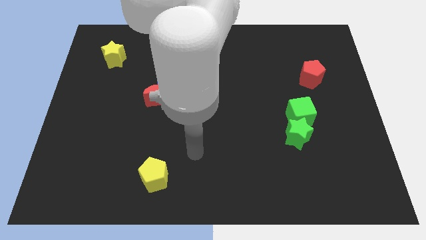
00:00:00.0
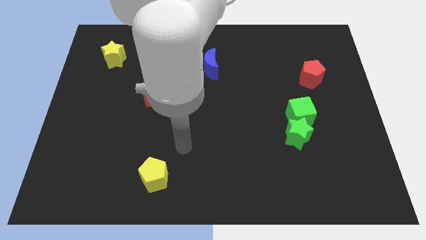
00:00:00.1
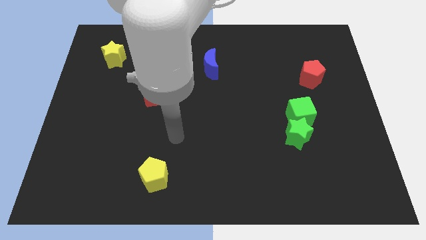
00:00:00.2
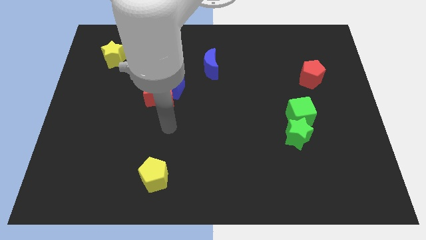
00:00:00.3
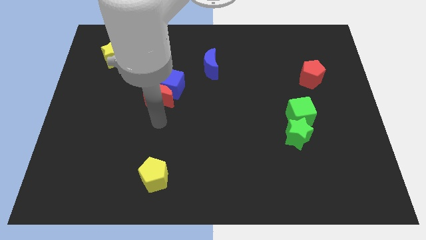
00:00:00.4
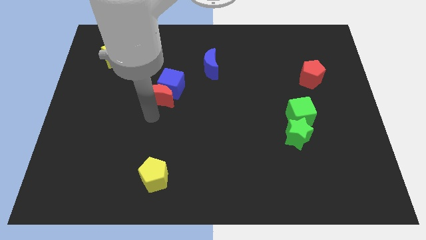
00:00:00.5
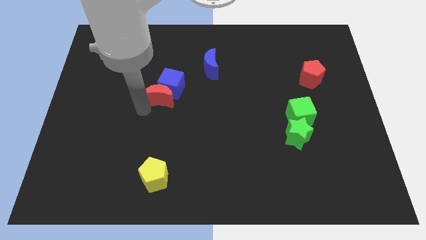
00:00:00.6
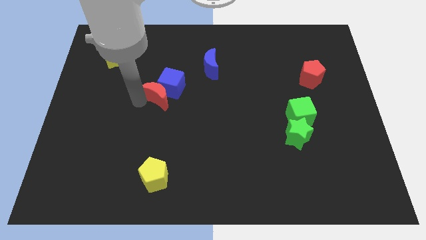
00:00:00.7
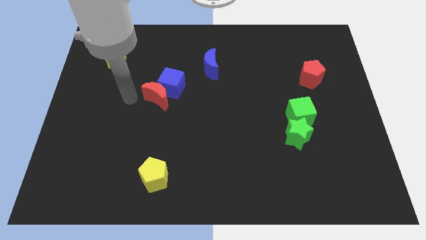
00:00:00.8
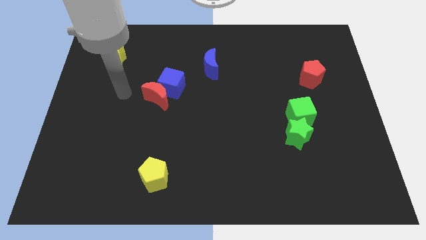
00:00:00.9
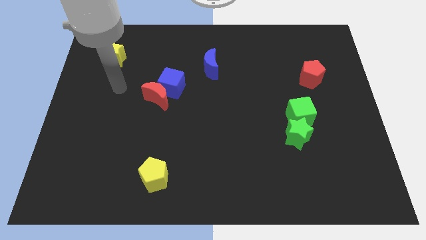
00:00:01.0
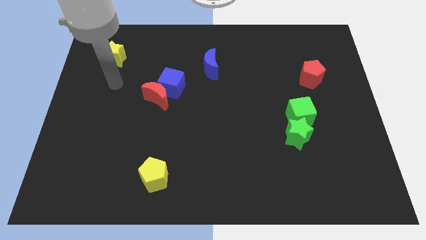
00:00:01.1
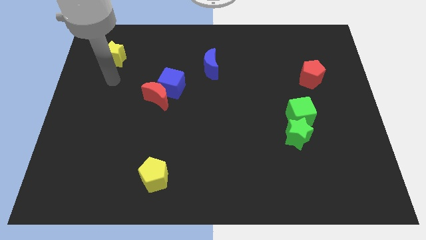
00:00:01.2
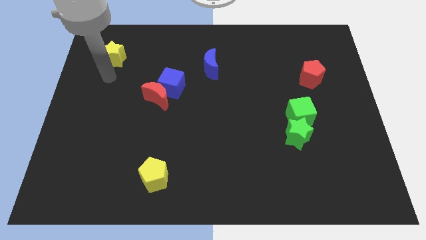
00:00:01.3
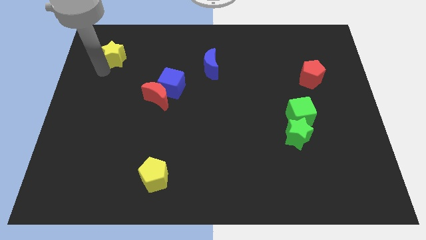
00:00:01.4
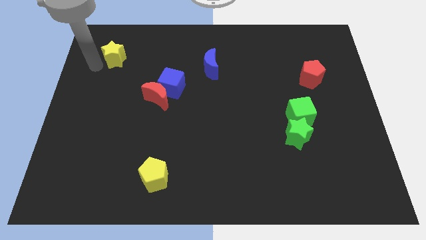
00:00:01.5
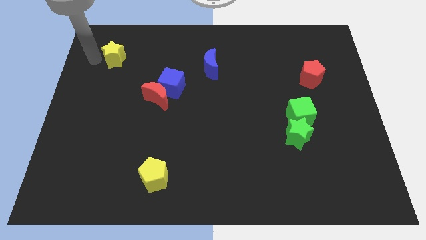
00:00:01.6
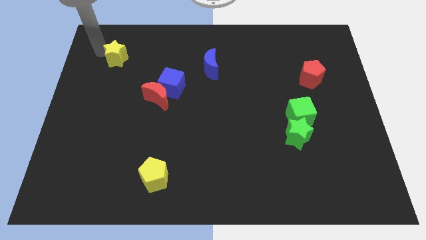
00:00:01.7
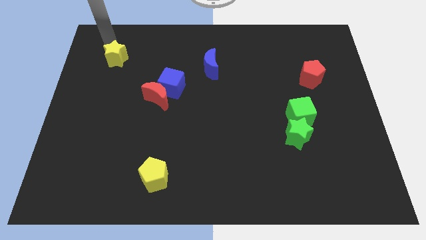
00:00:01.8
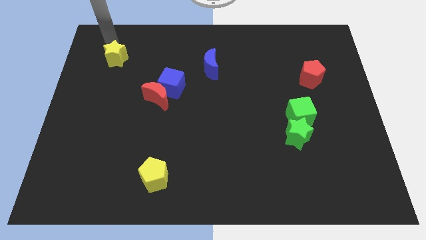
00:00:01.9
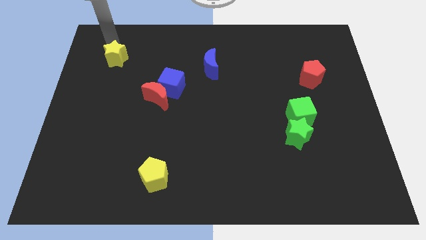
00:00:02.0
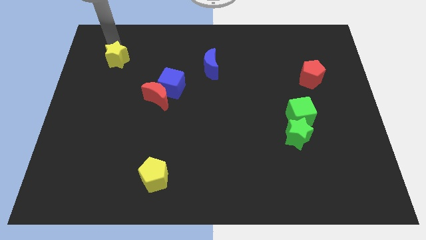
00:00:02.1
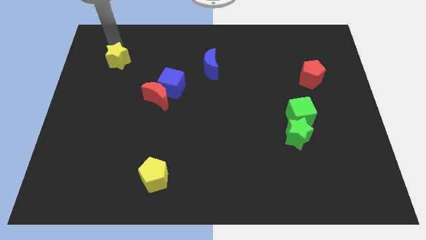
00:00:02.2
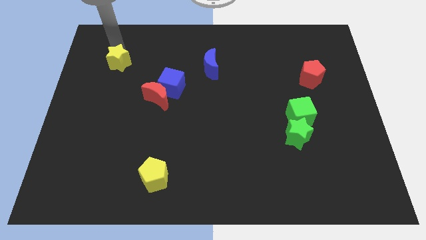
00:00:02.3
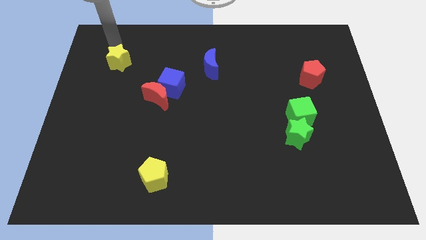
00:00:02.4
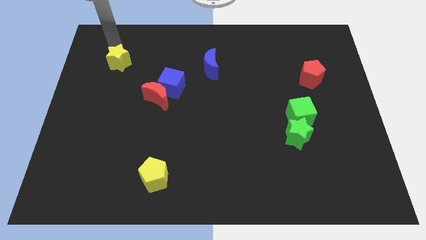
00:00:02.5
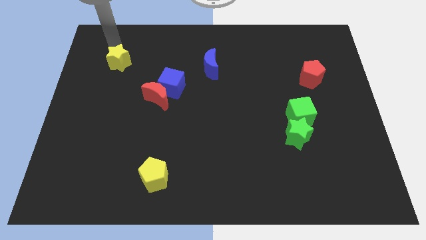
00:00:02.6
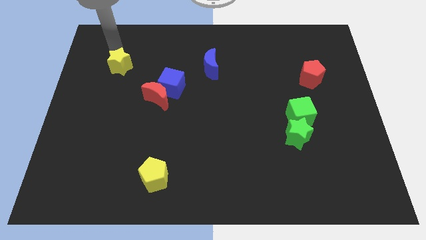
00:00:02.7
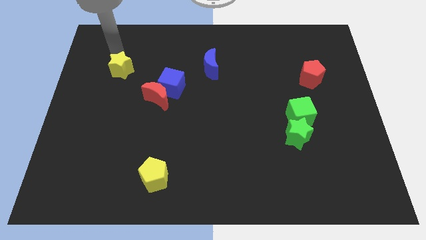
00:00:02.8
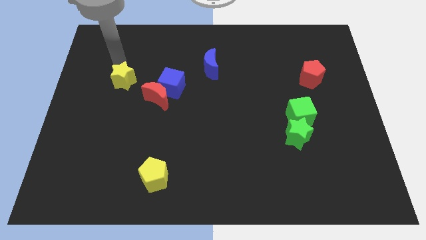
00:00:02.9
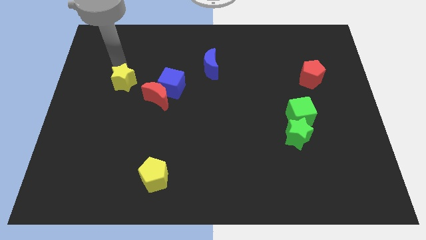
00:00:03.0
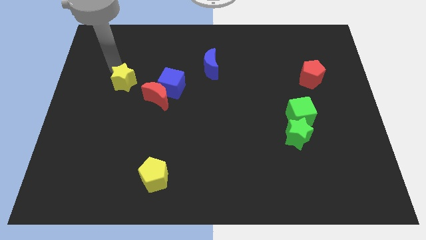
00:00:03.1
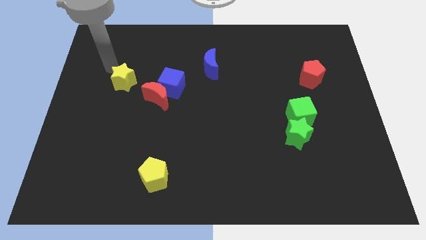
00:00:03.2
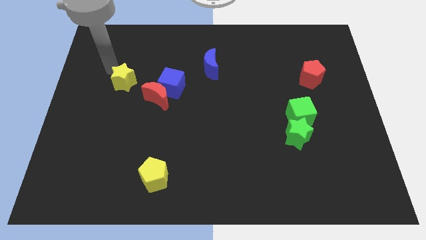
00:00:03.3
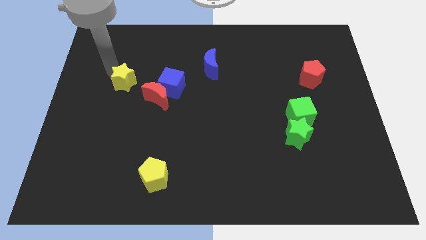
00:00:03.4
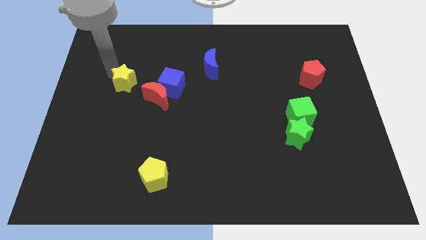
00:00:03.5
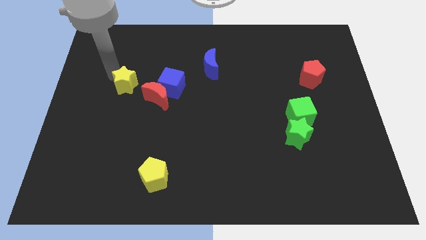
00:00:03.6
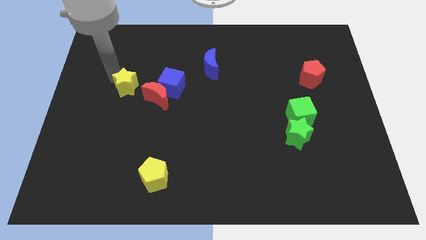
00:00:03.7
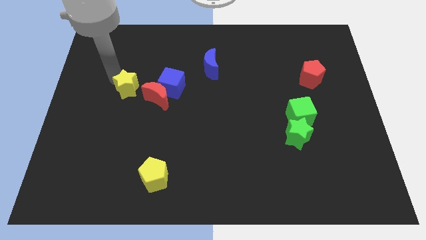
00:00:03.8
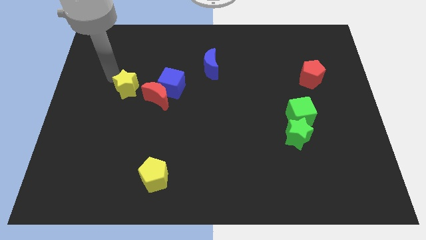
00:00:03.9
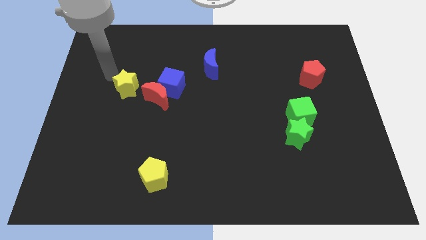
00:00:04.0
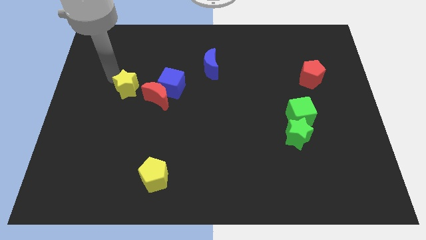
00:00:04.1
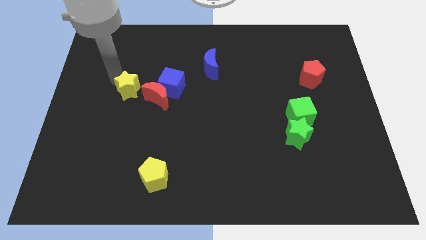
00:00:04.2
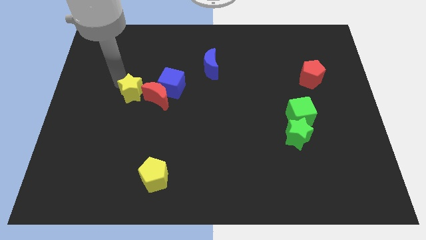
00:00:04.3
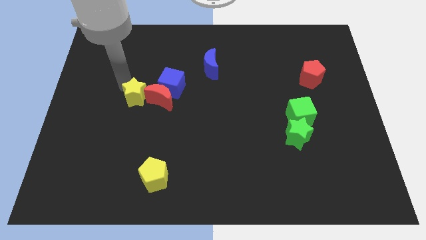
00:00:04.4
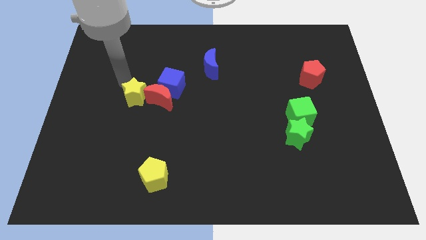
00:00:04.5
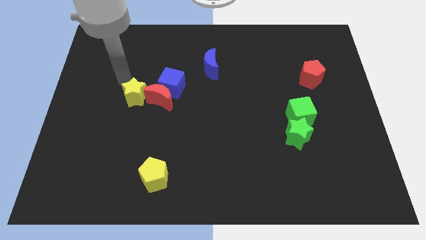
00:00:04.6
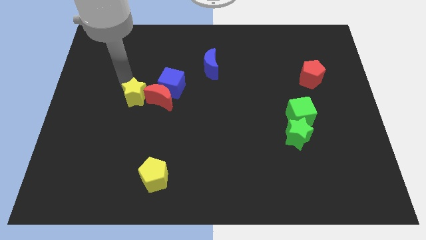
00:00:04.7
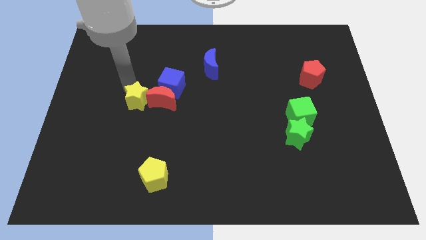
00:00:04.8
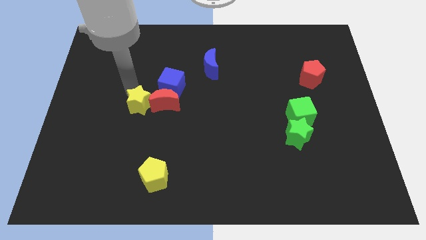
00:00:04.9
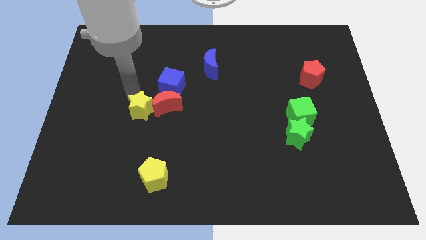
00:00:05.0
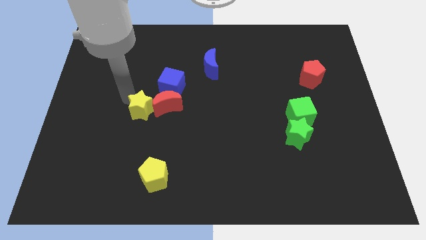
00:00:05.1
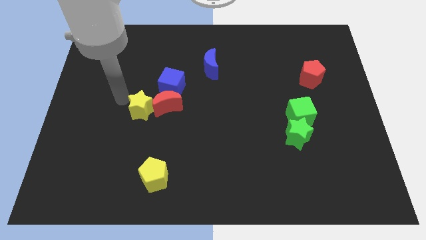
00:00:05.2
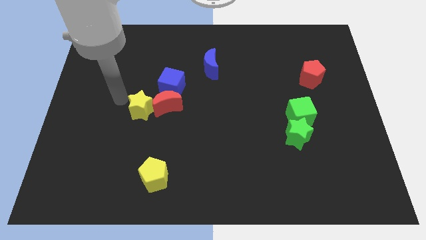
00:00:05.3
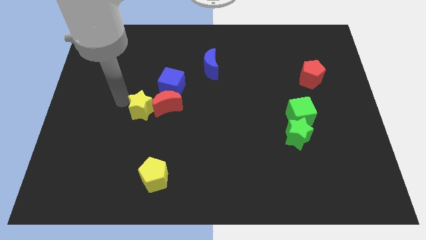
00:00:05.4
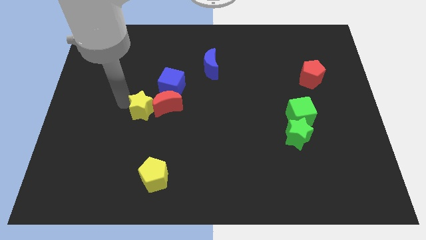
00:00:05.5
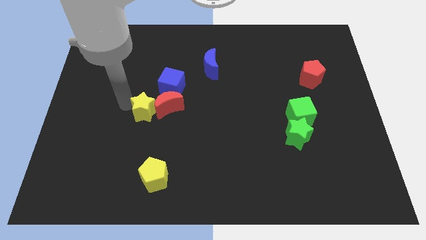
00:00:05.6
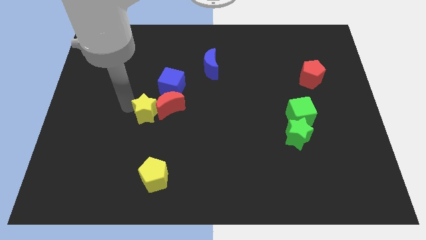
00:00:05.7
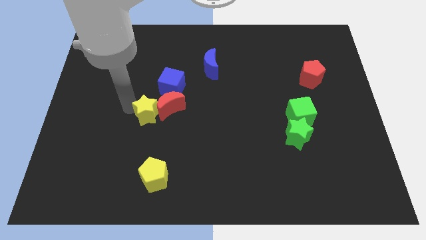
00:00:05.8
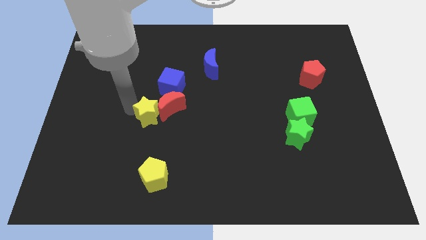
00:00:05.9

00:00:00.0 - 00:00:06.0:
push the yellow star down and then right

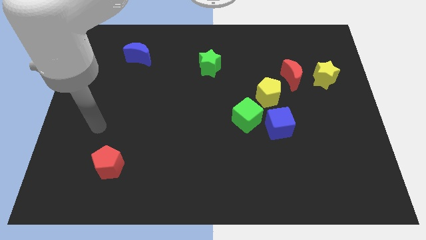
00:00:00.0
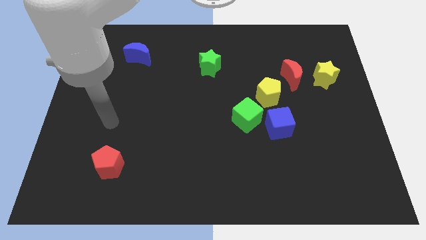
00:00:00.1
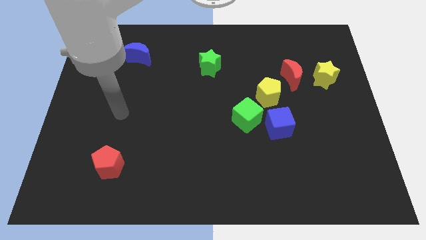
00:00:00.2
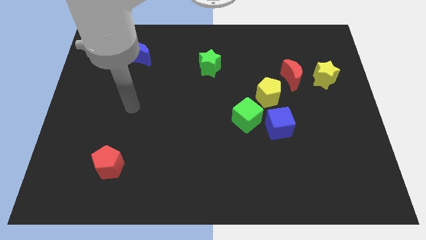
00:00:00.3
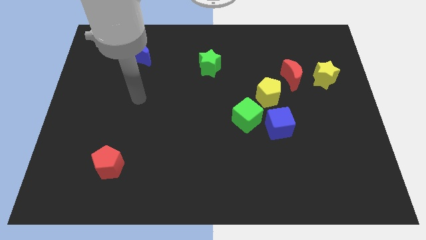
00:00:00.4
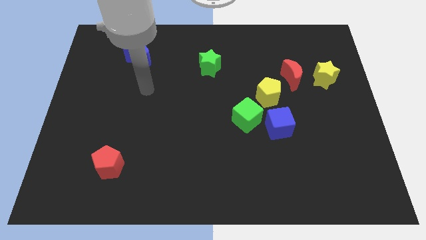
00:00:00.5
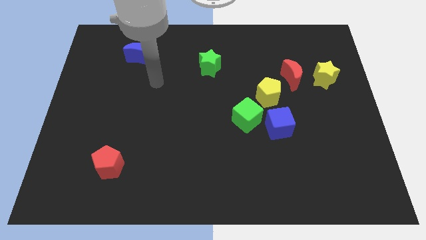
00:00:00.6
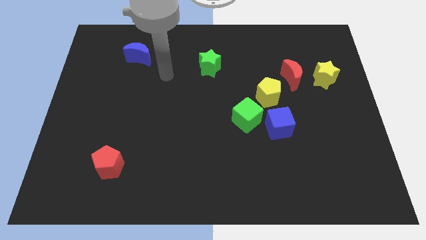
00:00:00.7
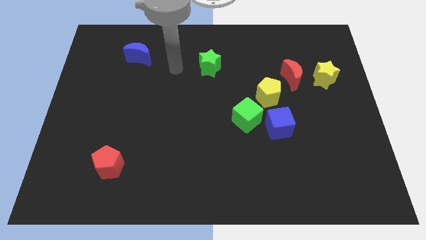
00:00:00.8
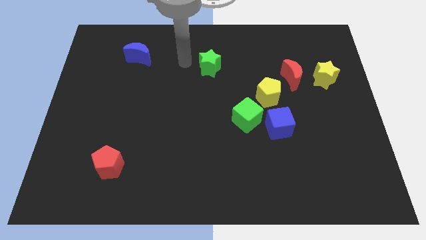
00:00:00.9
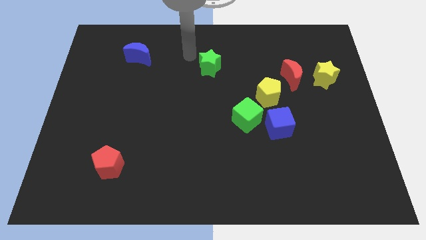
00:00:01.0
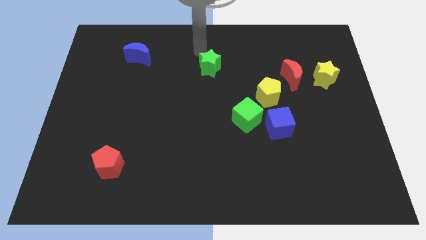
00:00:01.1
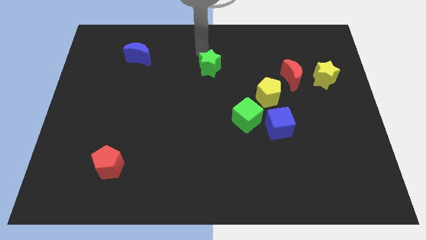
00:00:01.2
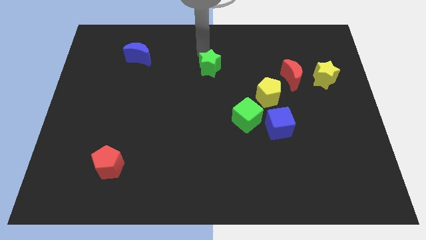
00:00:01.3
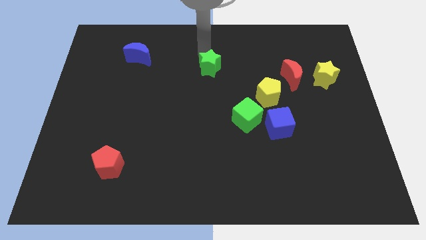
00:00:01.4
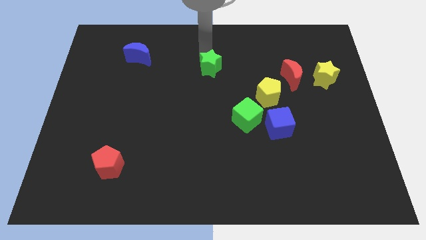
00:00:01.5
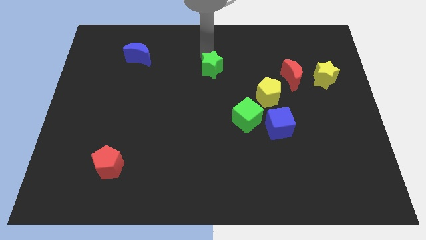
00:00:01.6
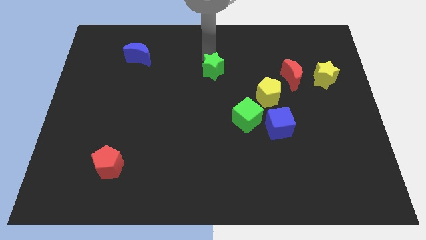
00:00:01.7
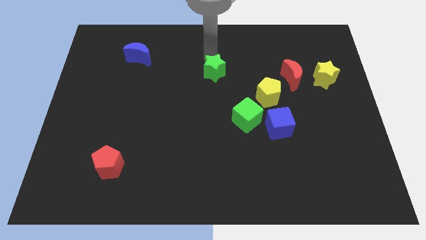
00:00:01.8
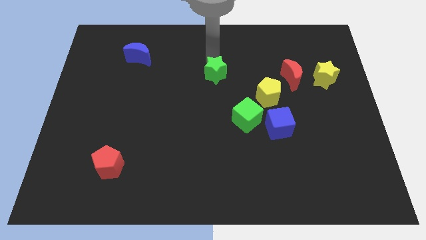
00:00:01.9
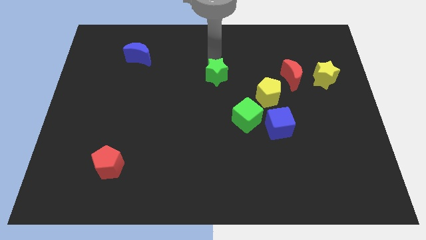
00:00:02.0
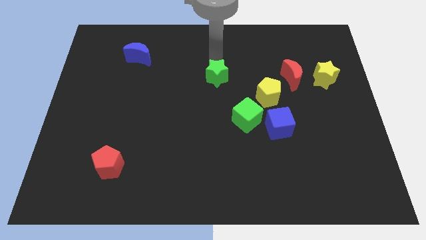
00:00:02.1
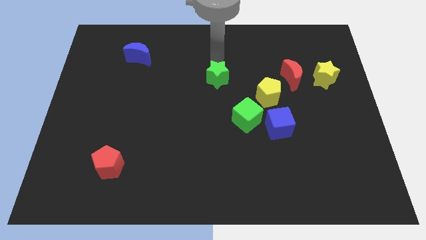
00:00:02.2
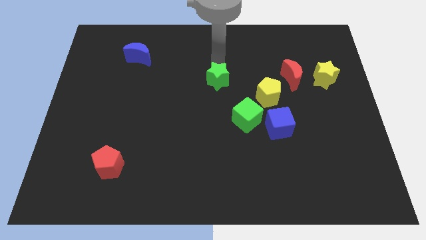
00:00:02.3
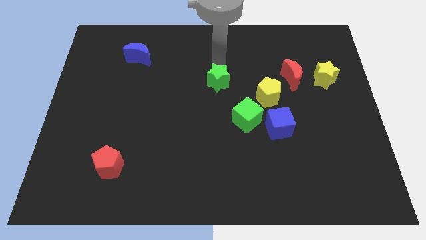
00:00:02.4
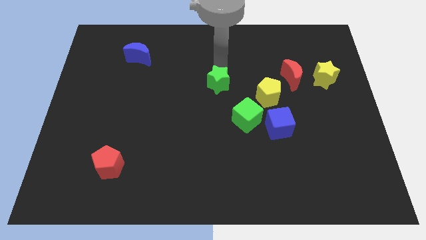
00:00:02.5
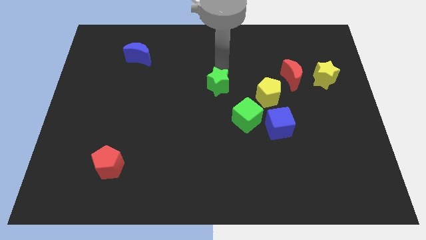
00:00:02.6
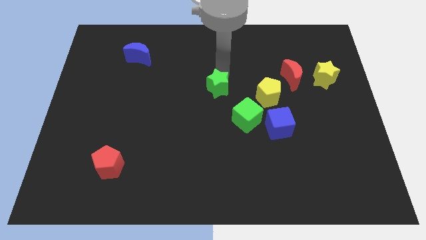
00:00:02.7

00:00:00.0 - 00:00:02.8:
slightly push the green star down
